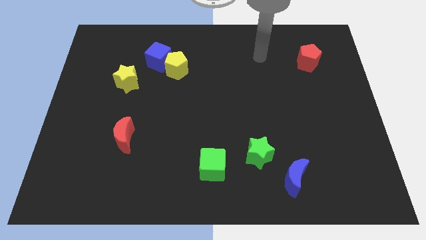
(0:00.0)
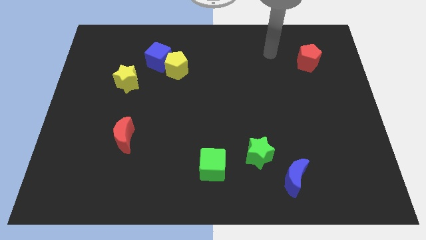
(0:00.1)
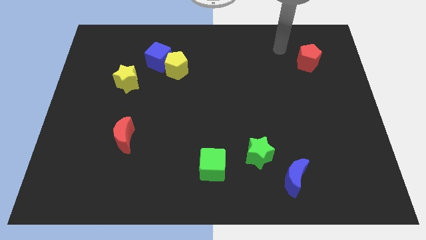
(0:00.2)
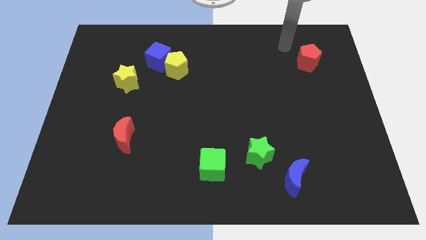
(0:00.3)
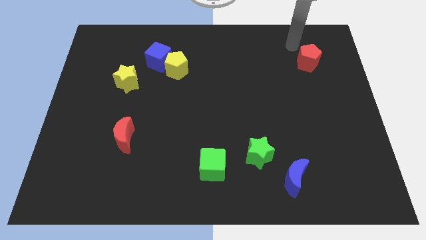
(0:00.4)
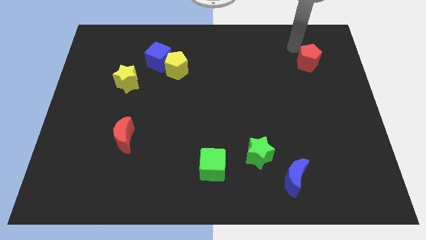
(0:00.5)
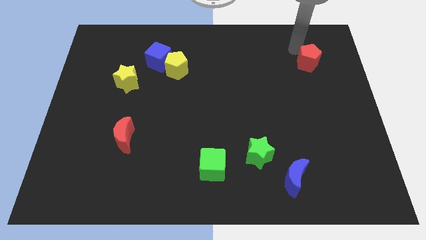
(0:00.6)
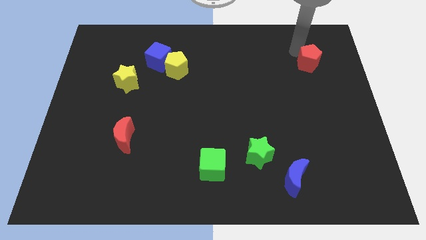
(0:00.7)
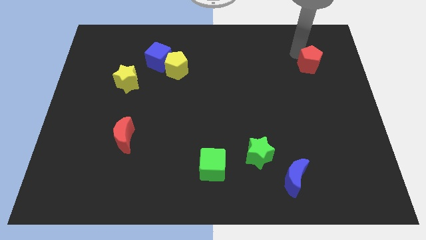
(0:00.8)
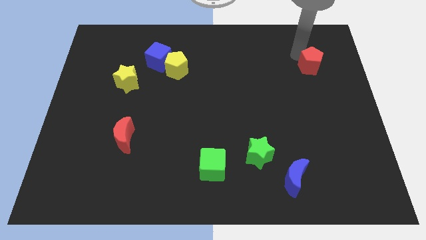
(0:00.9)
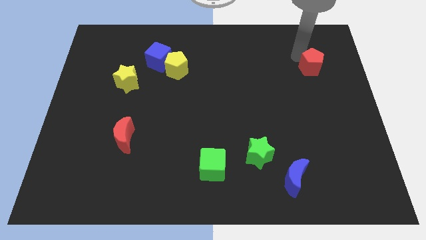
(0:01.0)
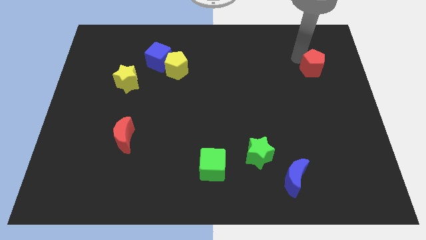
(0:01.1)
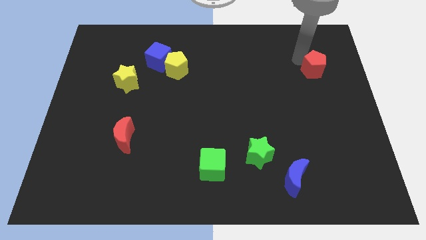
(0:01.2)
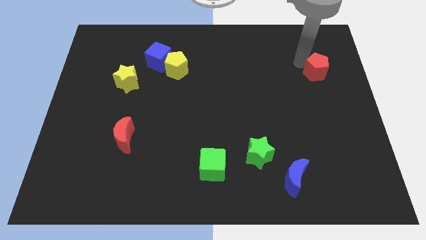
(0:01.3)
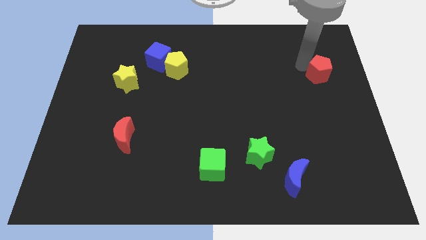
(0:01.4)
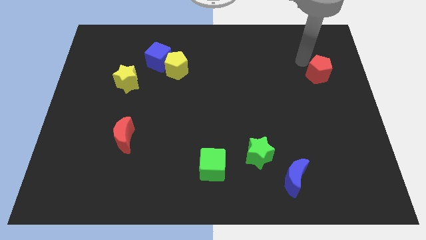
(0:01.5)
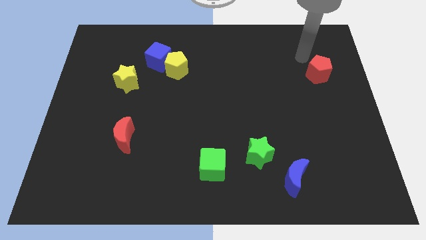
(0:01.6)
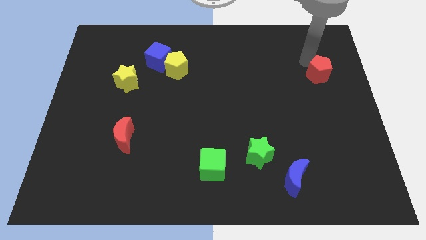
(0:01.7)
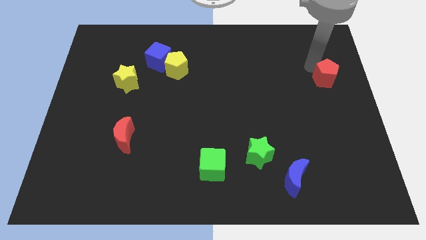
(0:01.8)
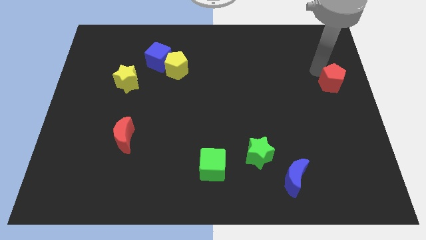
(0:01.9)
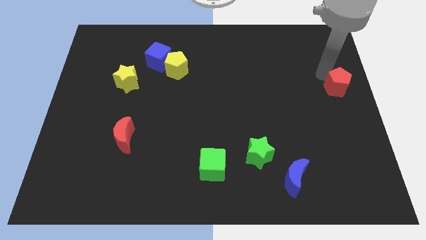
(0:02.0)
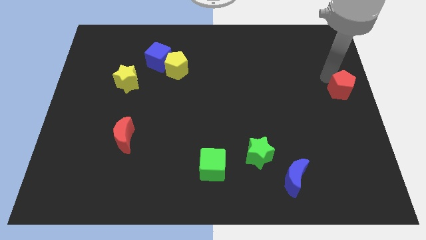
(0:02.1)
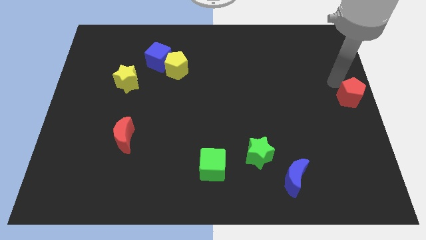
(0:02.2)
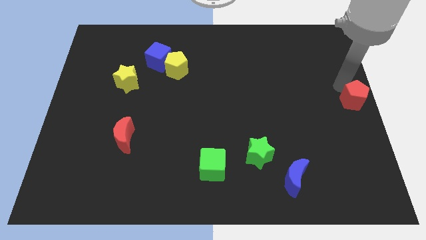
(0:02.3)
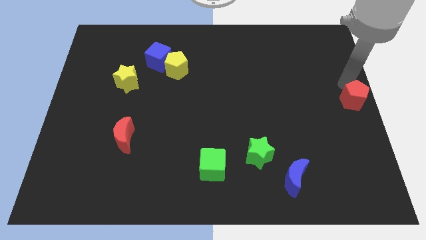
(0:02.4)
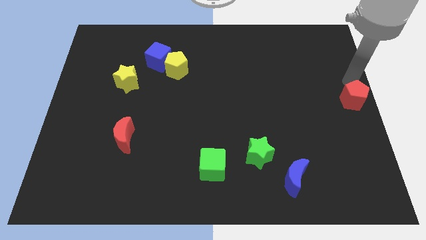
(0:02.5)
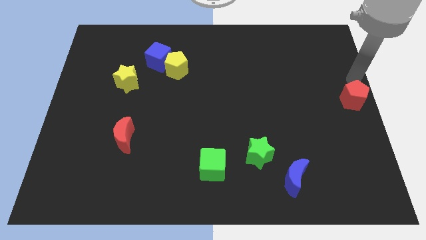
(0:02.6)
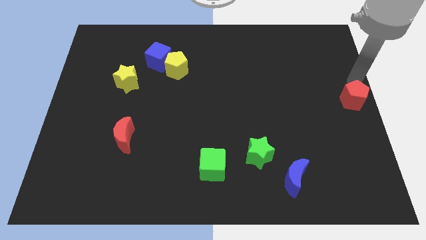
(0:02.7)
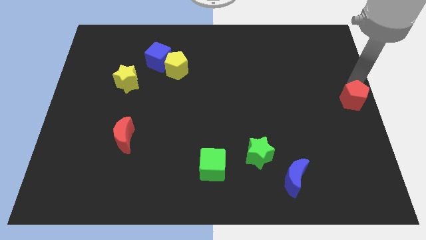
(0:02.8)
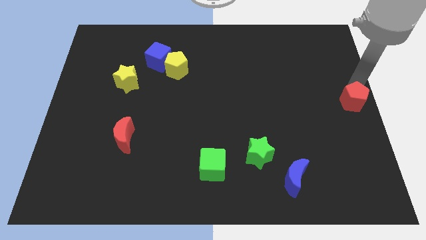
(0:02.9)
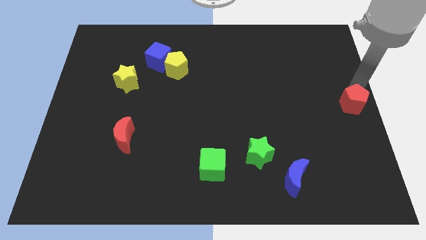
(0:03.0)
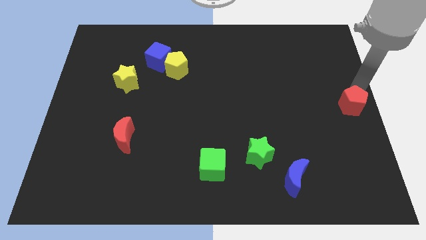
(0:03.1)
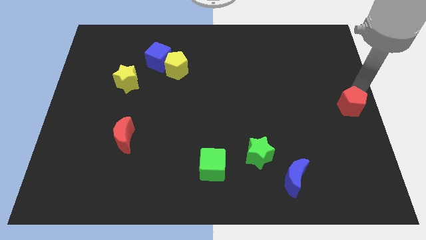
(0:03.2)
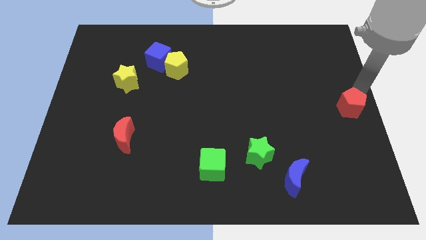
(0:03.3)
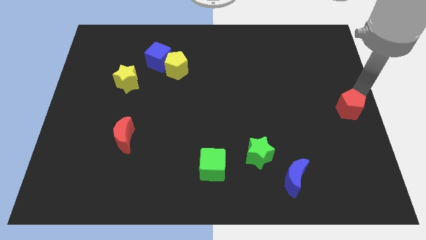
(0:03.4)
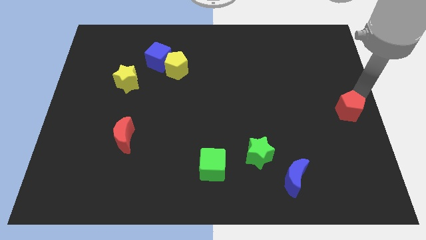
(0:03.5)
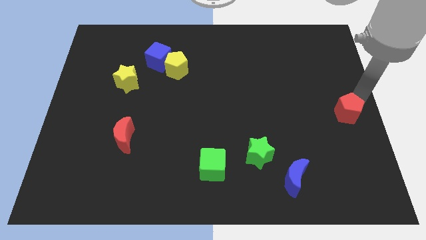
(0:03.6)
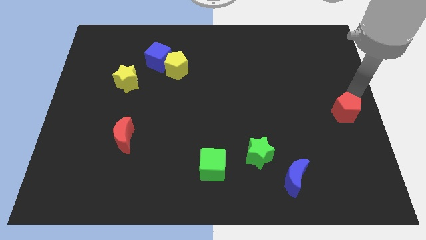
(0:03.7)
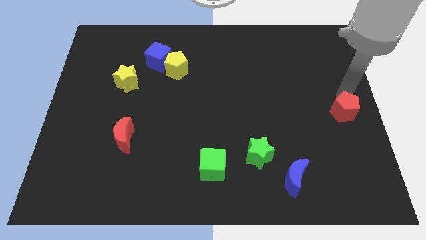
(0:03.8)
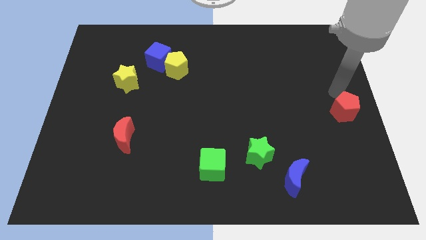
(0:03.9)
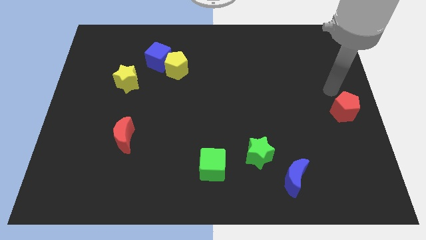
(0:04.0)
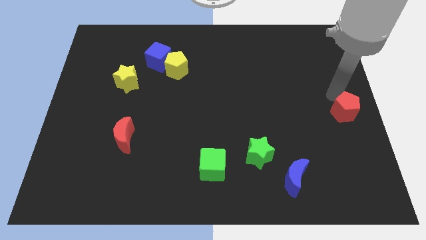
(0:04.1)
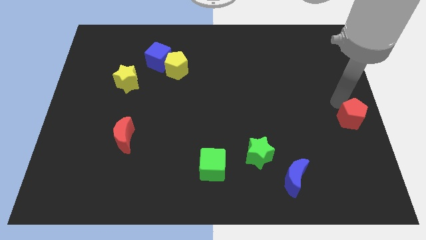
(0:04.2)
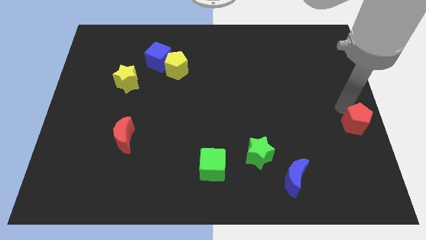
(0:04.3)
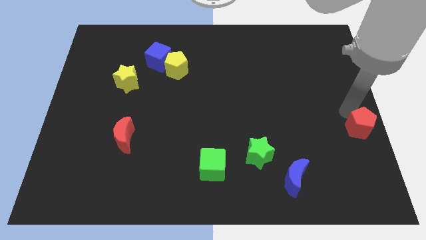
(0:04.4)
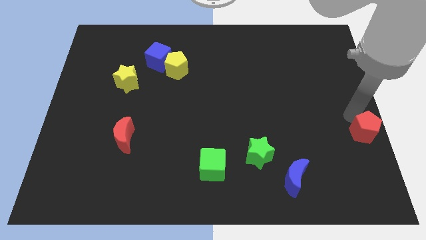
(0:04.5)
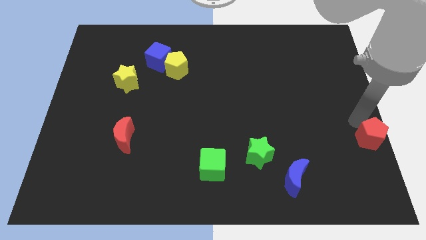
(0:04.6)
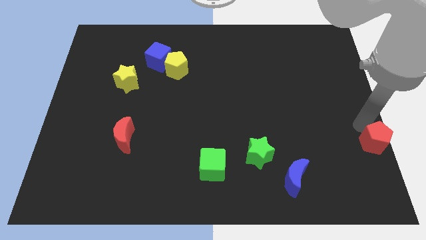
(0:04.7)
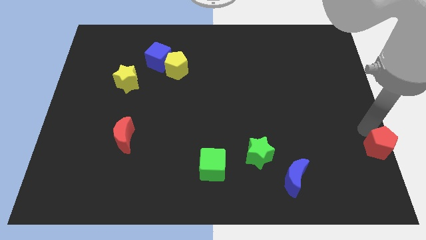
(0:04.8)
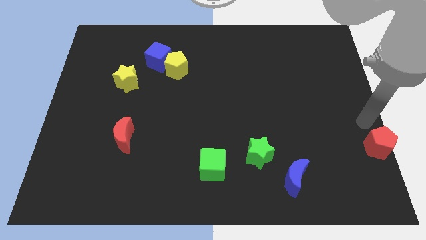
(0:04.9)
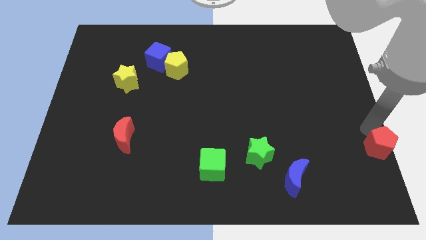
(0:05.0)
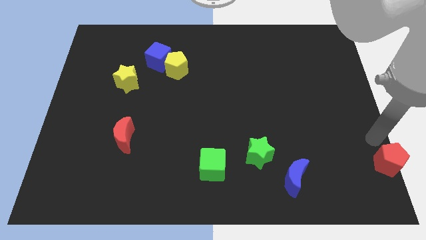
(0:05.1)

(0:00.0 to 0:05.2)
put the red pentagon to the bottom right corner

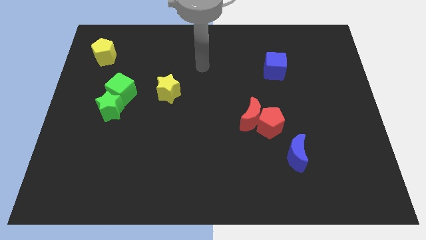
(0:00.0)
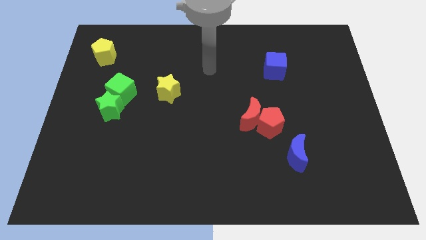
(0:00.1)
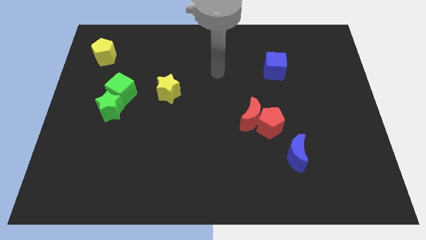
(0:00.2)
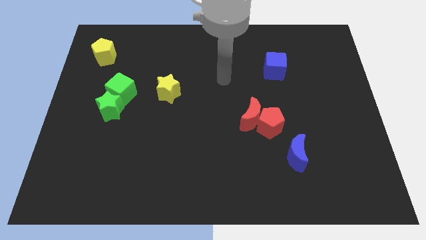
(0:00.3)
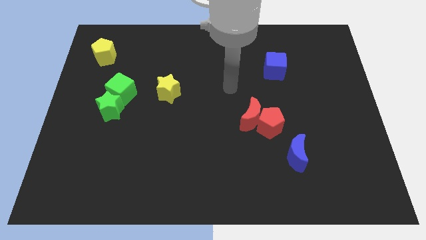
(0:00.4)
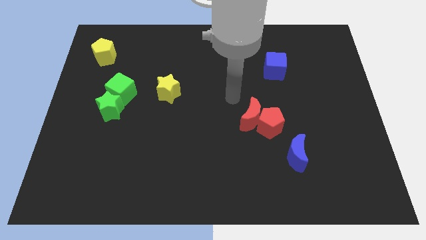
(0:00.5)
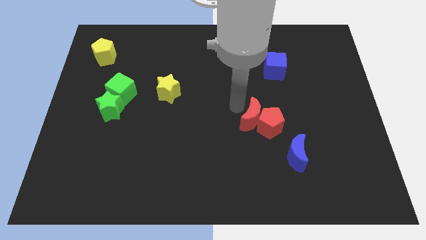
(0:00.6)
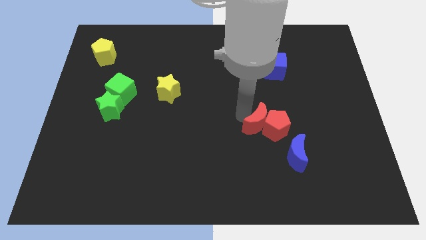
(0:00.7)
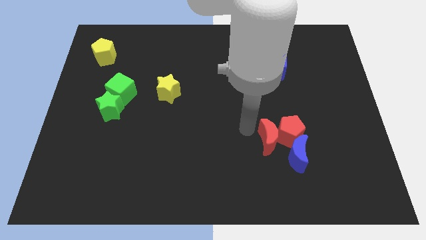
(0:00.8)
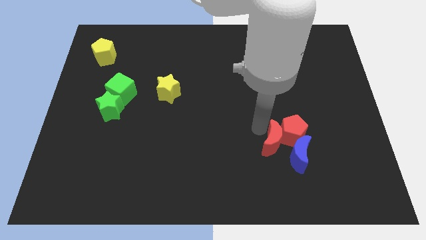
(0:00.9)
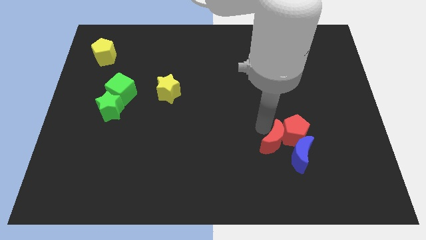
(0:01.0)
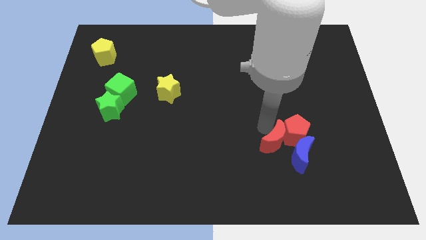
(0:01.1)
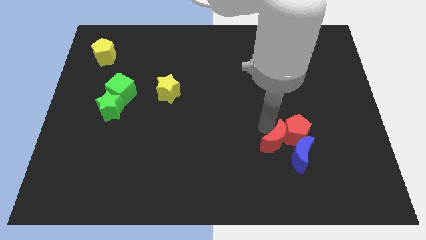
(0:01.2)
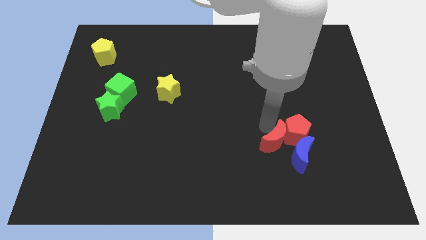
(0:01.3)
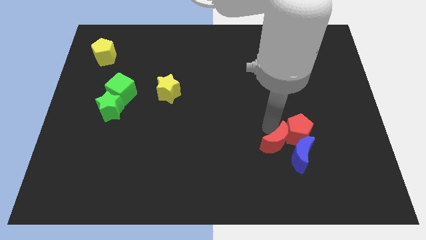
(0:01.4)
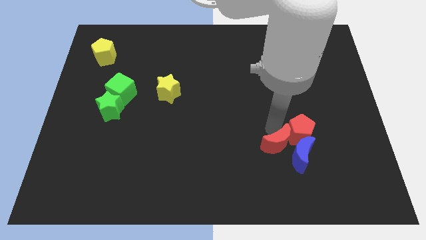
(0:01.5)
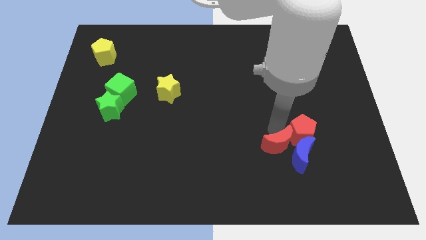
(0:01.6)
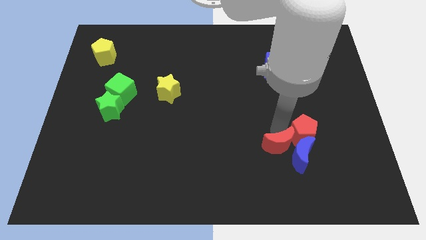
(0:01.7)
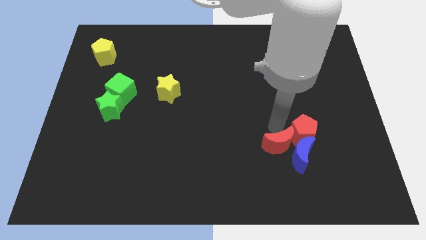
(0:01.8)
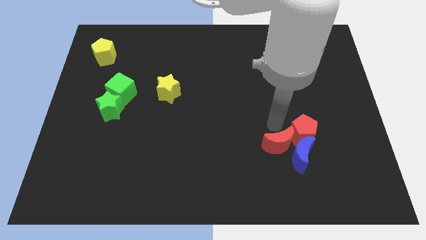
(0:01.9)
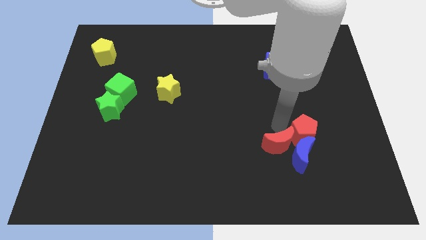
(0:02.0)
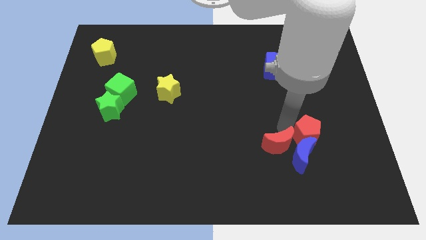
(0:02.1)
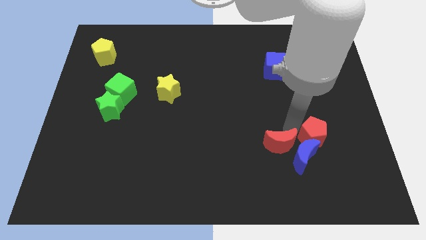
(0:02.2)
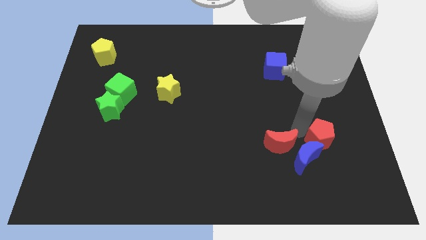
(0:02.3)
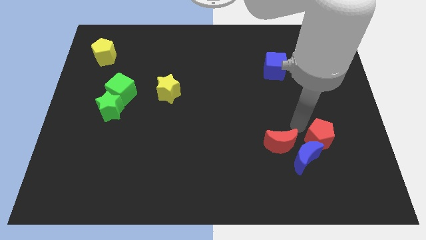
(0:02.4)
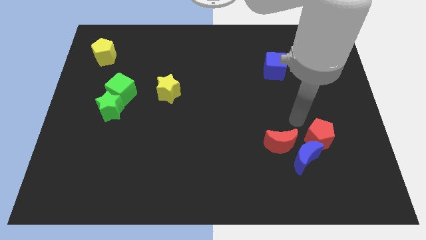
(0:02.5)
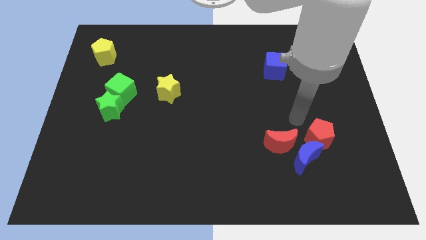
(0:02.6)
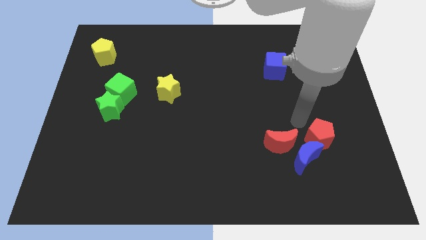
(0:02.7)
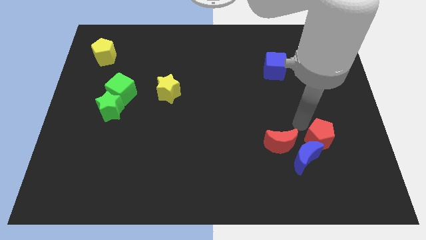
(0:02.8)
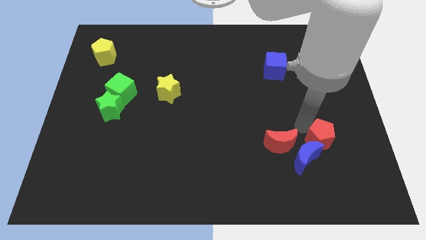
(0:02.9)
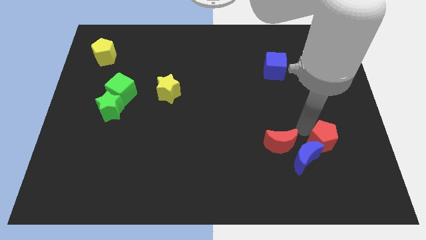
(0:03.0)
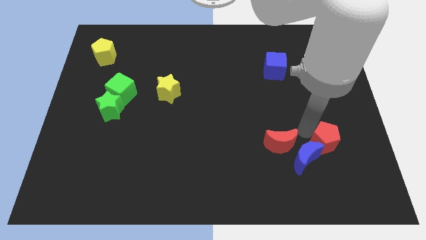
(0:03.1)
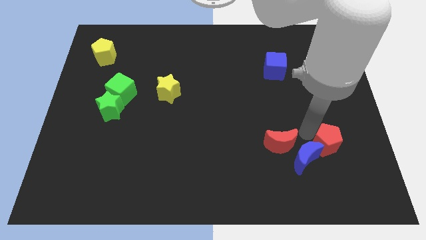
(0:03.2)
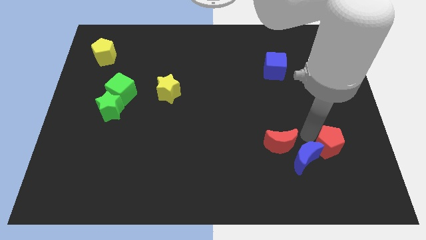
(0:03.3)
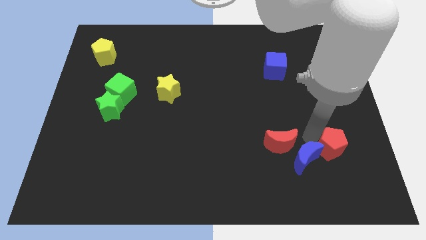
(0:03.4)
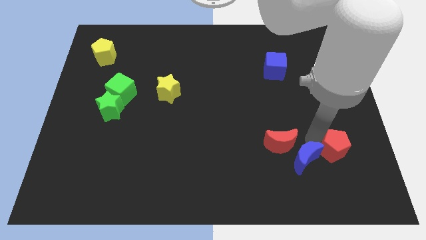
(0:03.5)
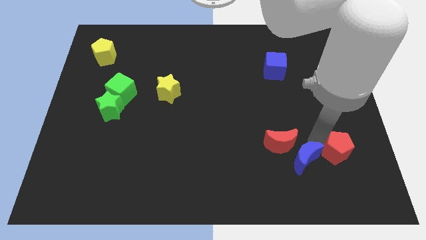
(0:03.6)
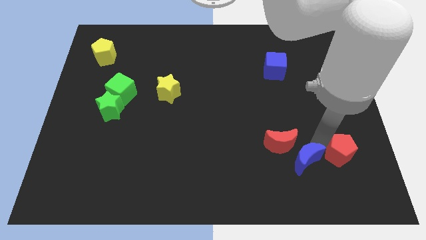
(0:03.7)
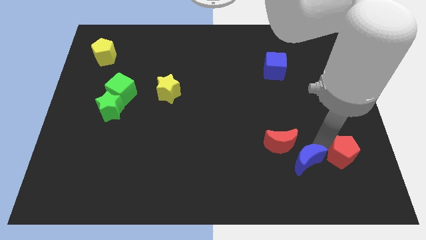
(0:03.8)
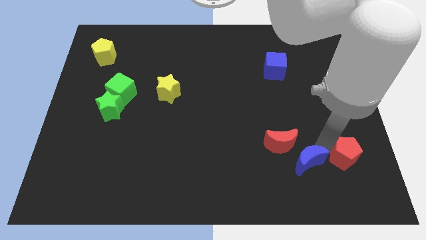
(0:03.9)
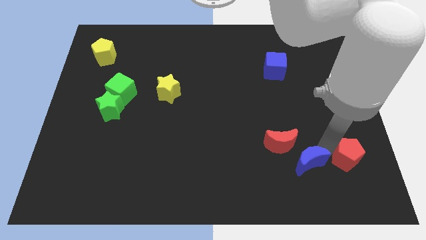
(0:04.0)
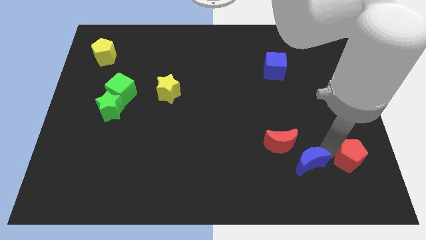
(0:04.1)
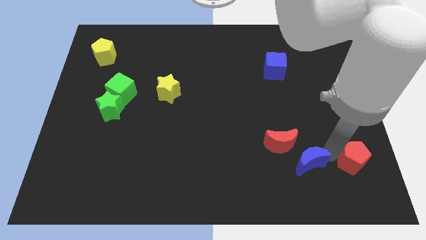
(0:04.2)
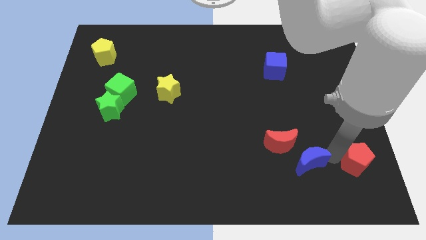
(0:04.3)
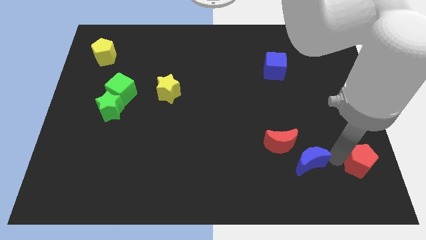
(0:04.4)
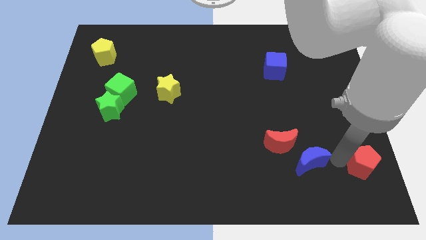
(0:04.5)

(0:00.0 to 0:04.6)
push the red pentagon to the lower right corner
